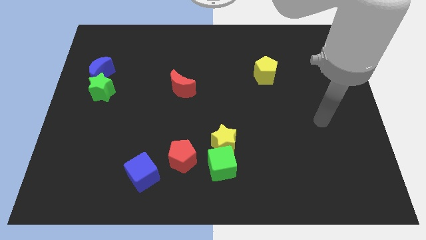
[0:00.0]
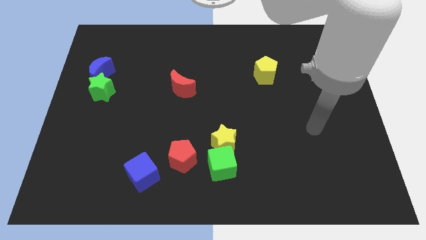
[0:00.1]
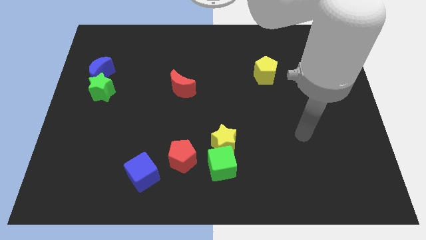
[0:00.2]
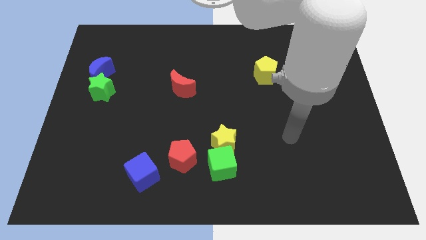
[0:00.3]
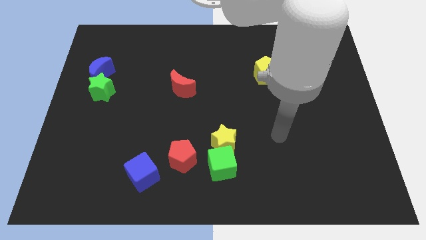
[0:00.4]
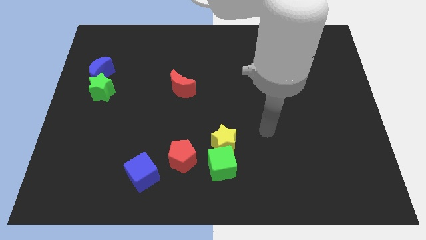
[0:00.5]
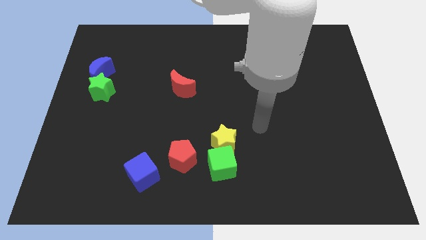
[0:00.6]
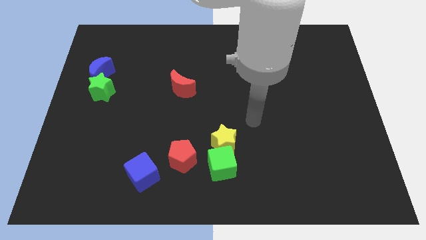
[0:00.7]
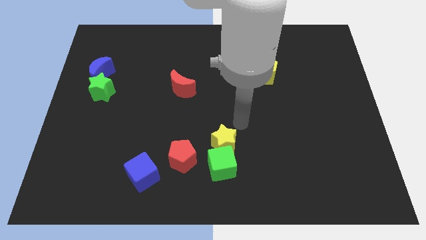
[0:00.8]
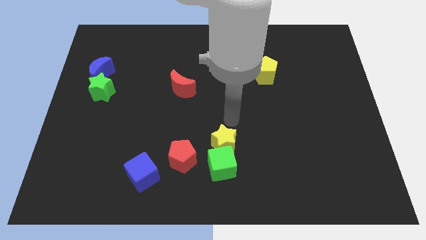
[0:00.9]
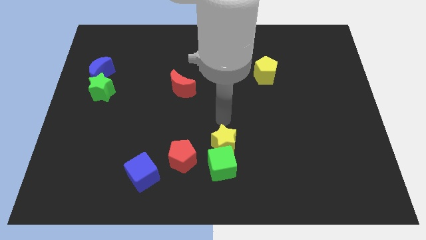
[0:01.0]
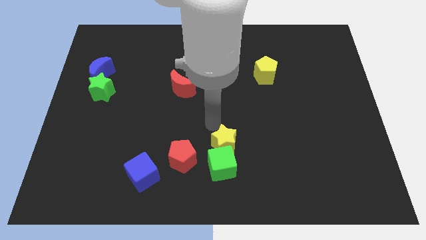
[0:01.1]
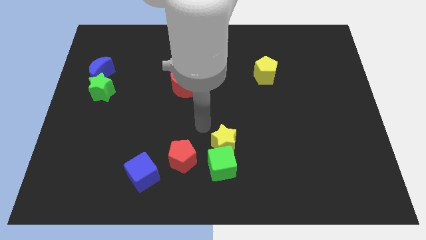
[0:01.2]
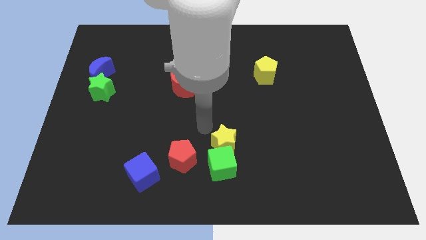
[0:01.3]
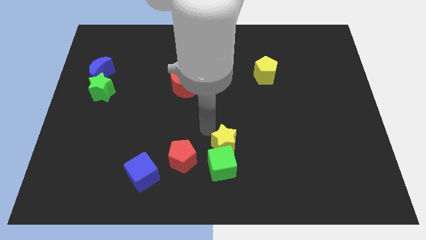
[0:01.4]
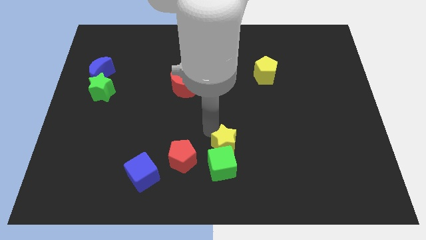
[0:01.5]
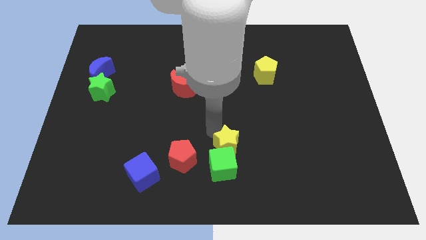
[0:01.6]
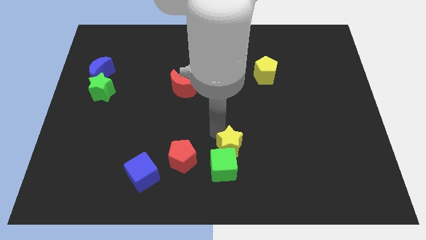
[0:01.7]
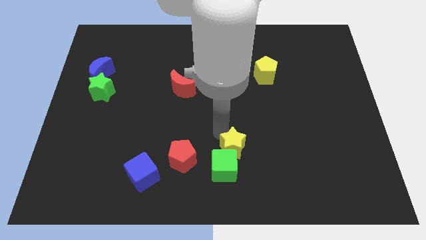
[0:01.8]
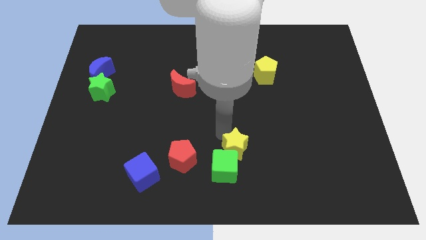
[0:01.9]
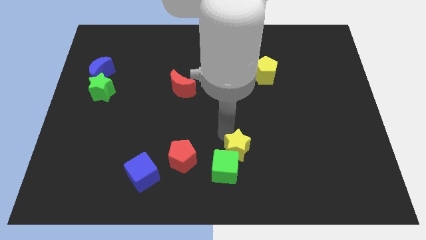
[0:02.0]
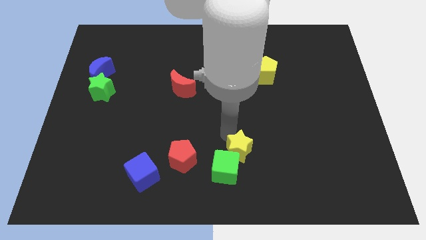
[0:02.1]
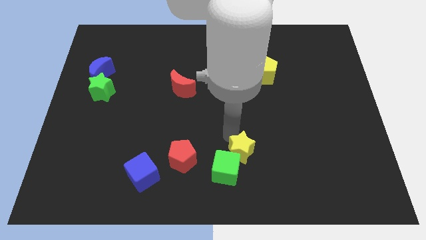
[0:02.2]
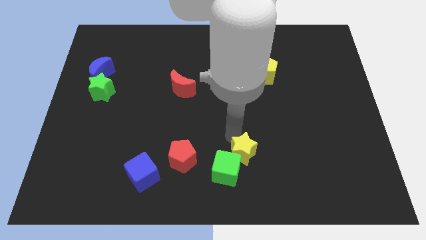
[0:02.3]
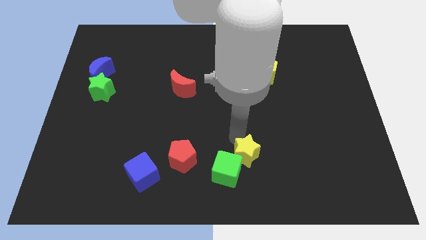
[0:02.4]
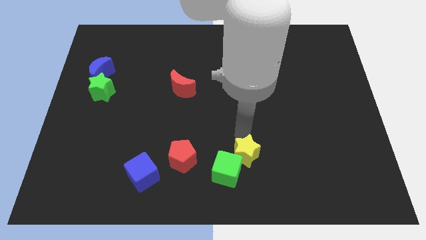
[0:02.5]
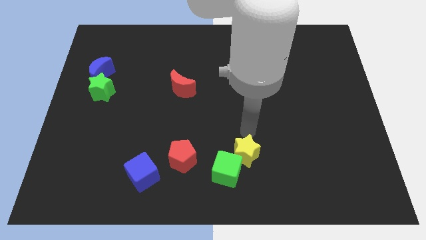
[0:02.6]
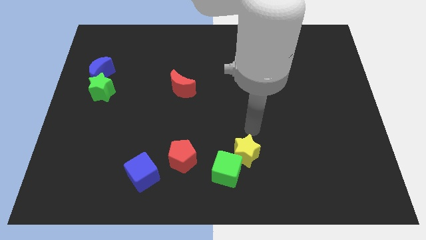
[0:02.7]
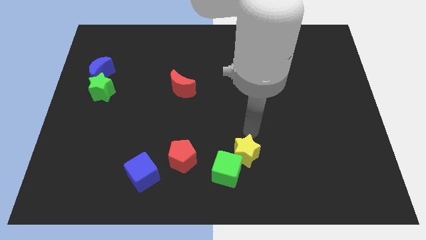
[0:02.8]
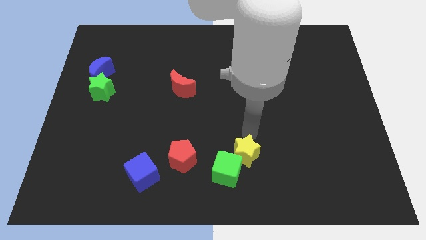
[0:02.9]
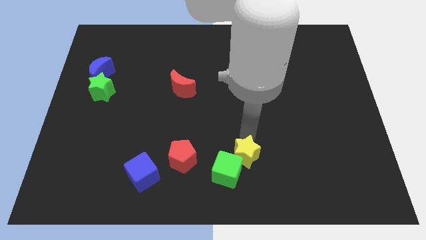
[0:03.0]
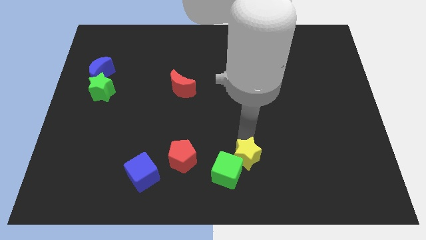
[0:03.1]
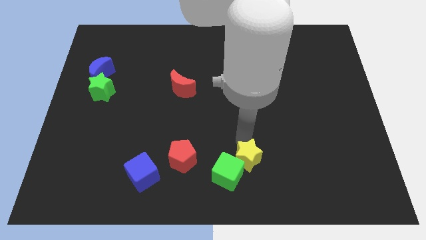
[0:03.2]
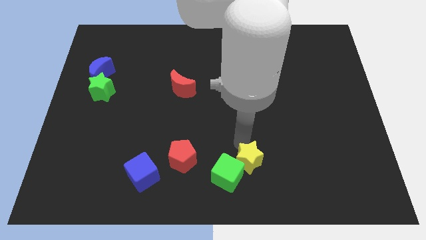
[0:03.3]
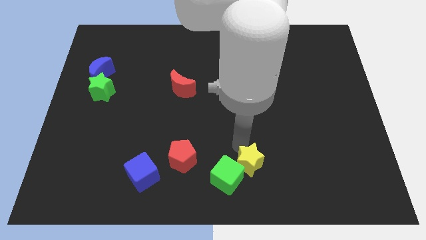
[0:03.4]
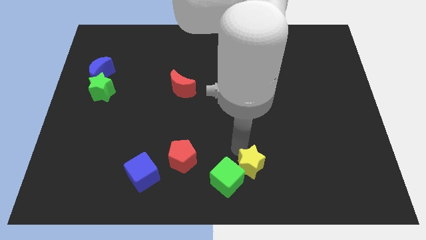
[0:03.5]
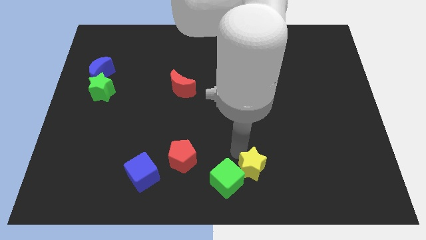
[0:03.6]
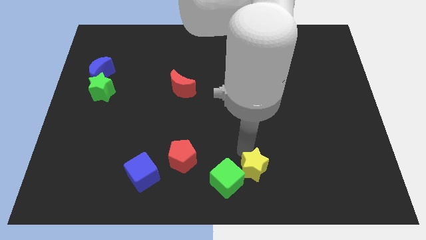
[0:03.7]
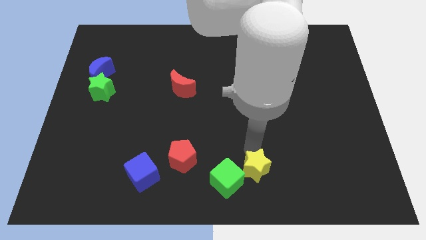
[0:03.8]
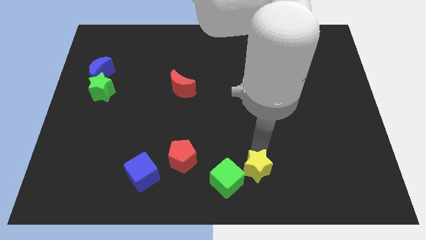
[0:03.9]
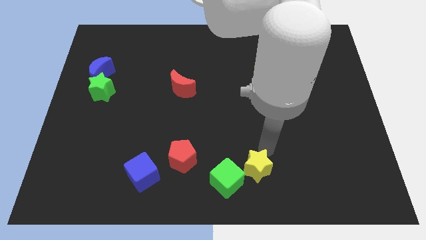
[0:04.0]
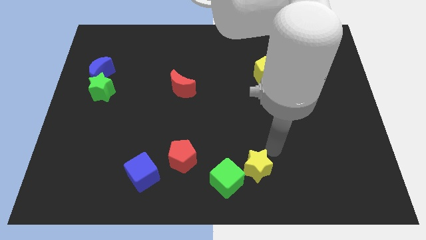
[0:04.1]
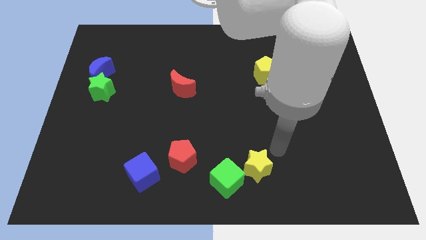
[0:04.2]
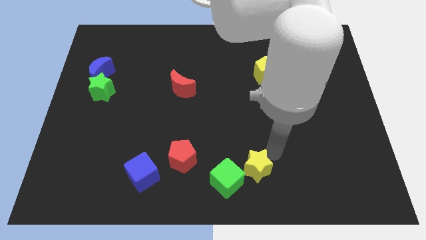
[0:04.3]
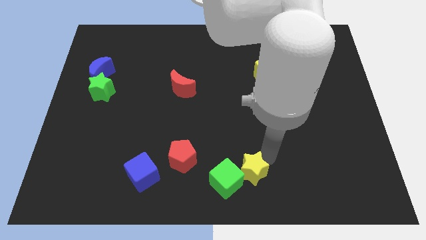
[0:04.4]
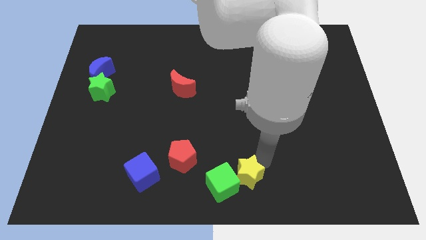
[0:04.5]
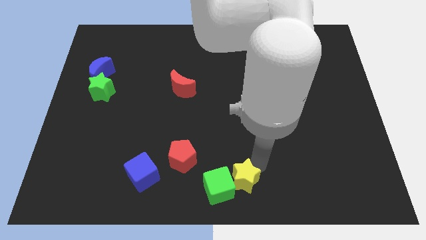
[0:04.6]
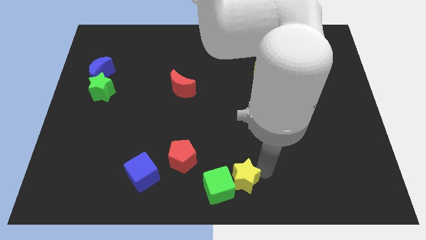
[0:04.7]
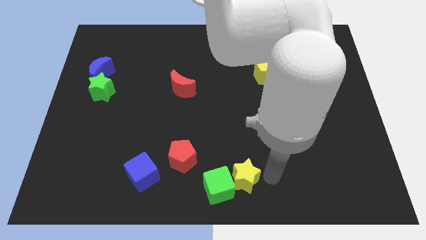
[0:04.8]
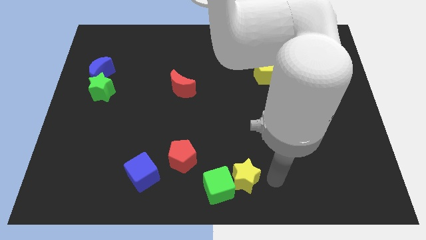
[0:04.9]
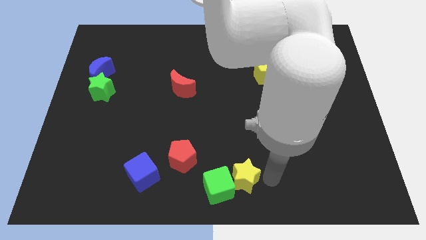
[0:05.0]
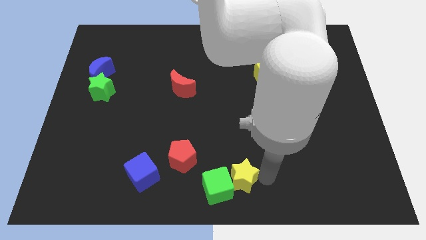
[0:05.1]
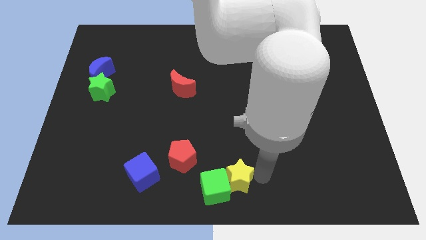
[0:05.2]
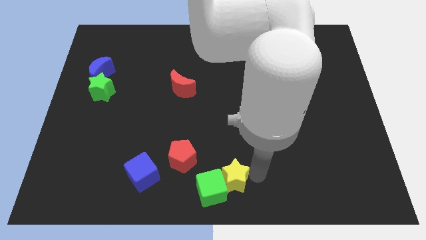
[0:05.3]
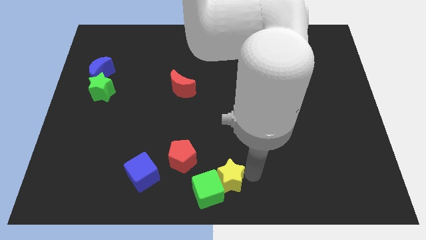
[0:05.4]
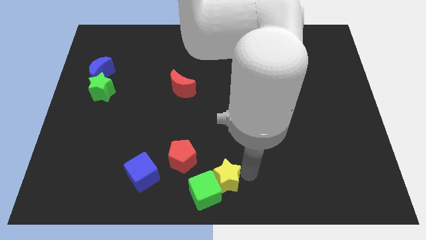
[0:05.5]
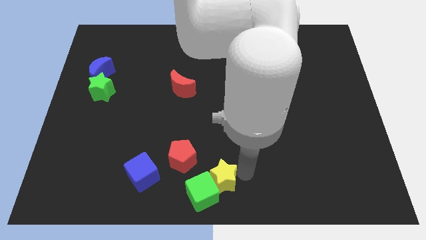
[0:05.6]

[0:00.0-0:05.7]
put the yellow star to the right side of the blue cube

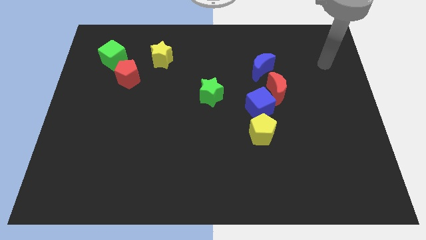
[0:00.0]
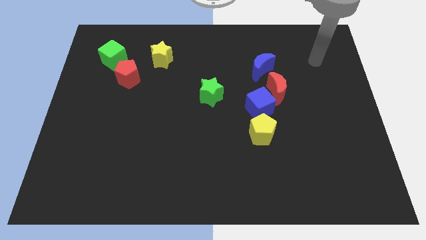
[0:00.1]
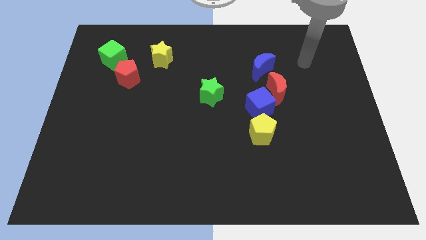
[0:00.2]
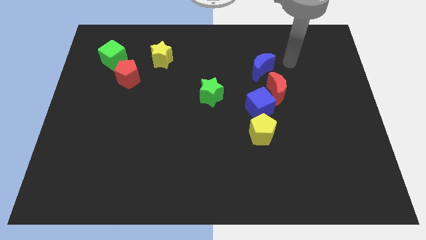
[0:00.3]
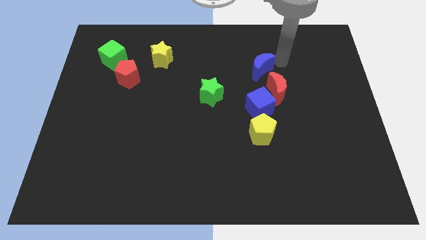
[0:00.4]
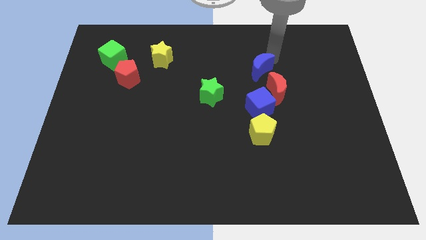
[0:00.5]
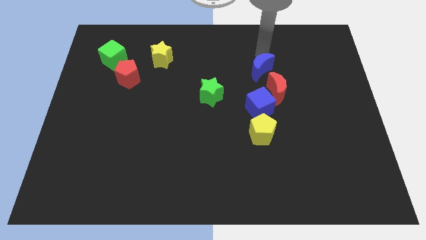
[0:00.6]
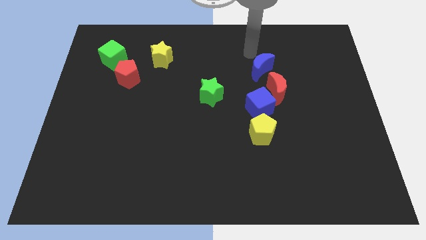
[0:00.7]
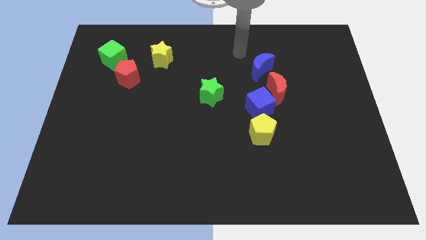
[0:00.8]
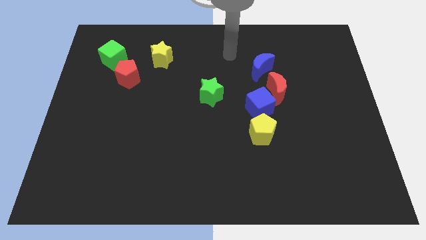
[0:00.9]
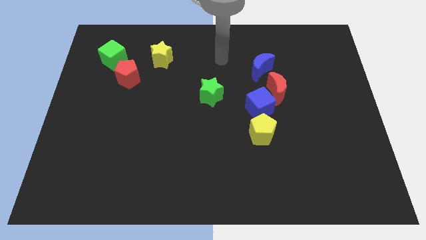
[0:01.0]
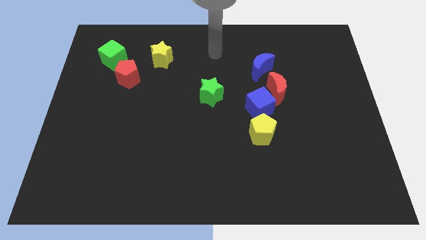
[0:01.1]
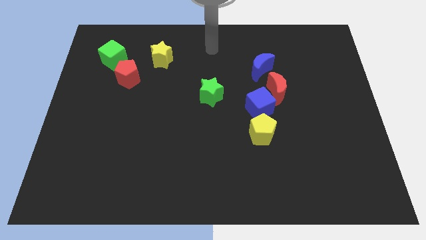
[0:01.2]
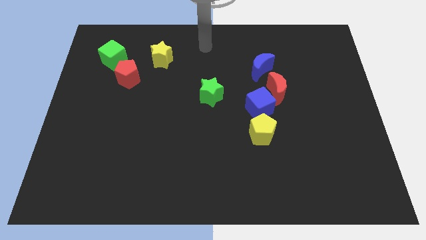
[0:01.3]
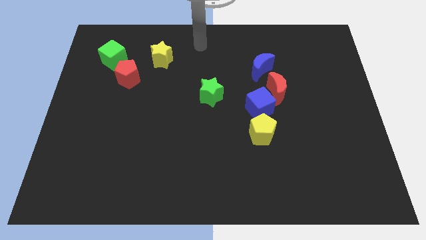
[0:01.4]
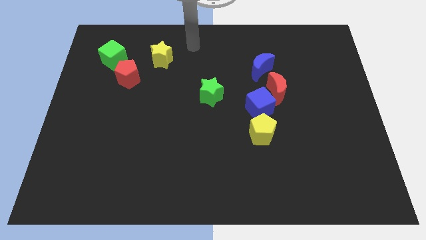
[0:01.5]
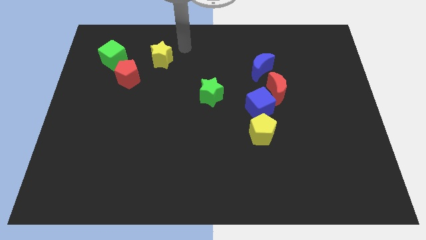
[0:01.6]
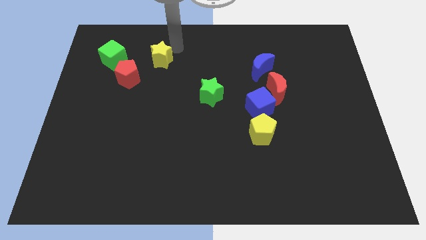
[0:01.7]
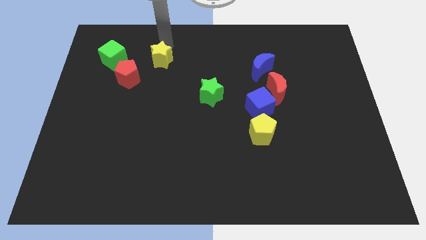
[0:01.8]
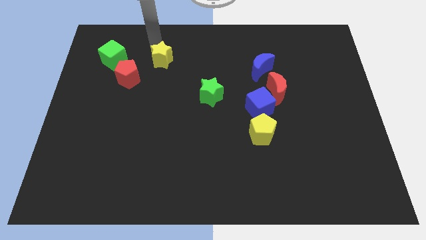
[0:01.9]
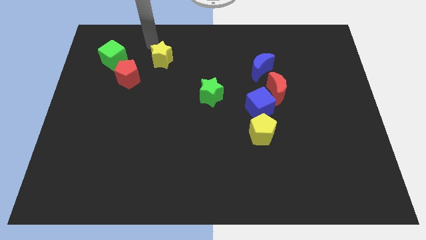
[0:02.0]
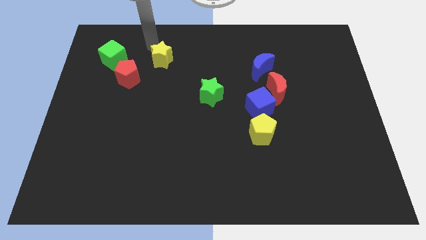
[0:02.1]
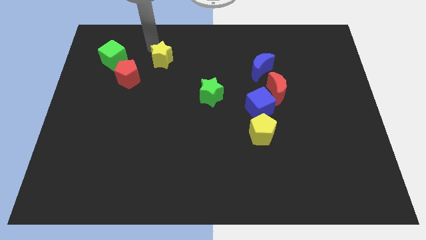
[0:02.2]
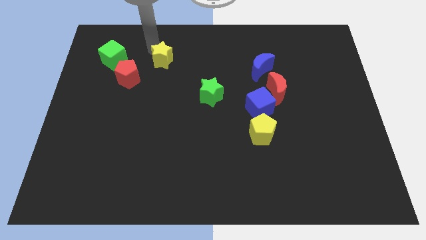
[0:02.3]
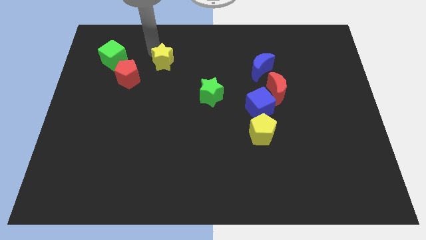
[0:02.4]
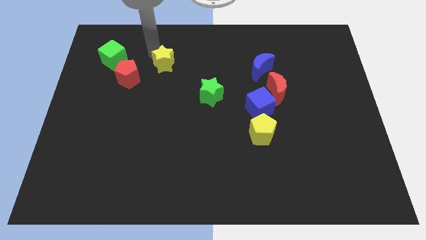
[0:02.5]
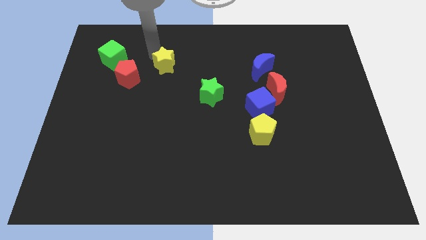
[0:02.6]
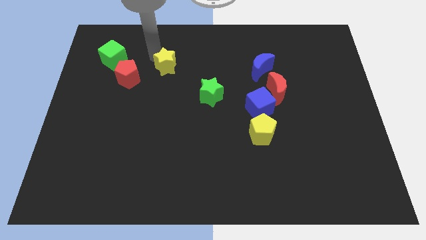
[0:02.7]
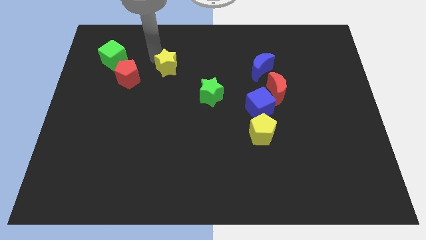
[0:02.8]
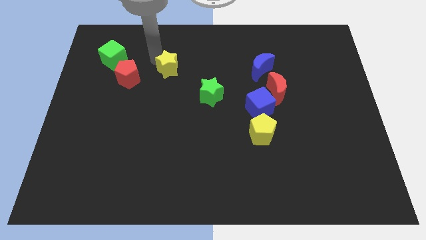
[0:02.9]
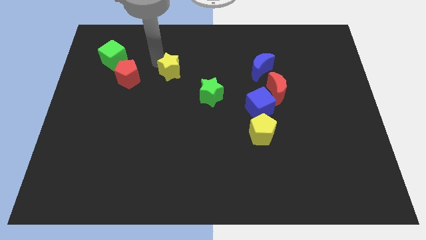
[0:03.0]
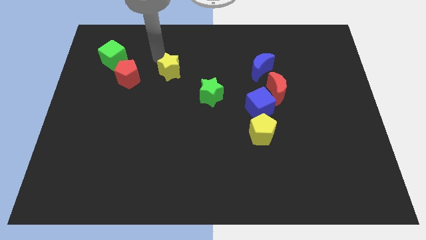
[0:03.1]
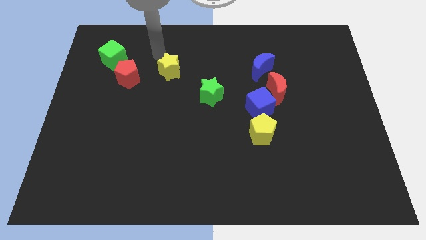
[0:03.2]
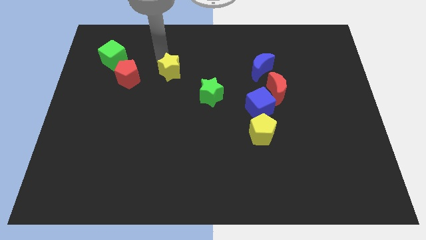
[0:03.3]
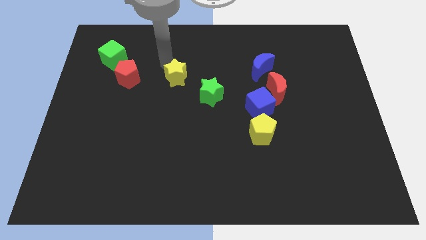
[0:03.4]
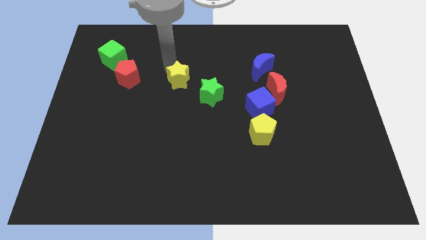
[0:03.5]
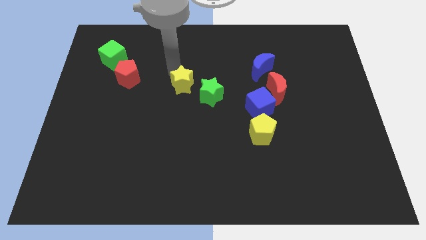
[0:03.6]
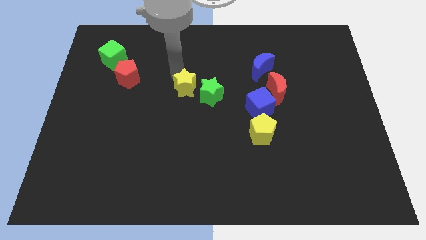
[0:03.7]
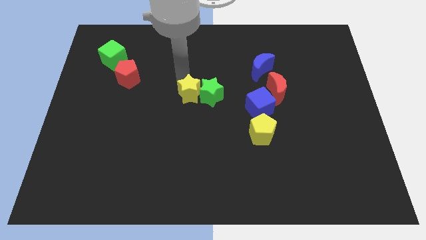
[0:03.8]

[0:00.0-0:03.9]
slide the yellow star diagonally down and to the left of the green star
